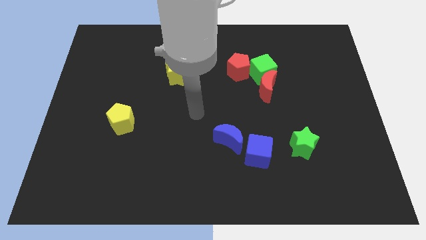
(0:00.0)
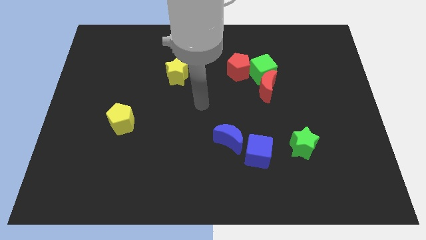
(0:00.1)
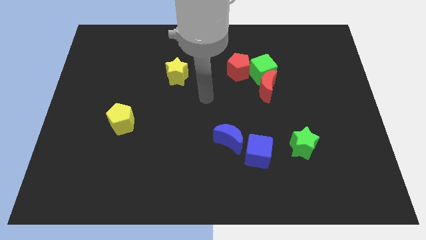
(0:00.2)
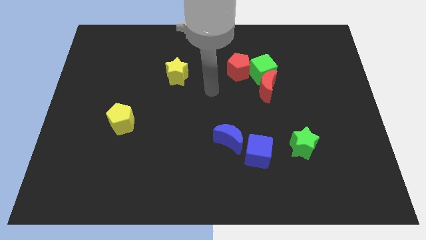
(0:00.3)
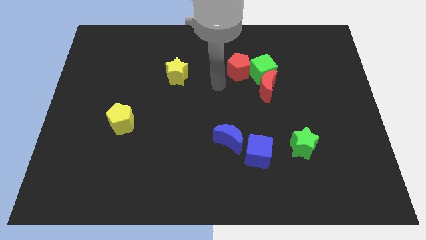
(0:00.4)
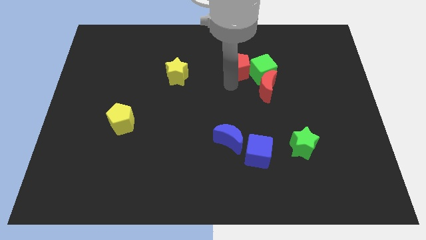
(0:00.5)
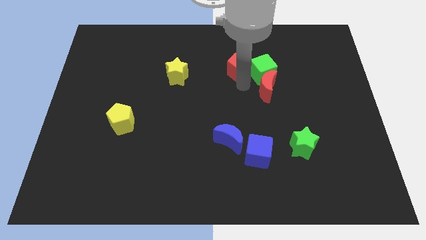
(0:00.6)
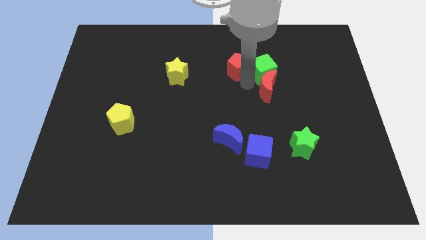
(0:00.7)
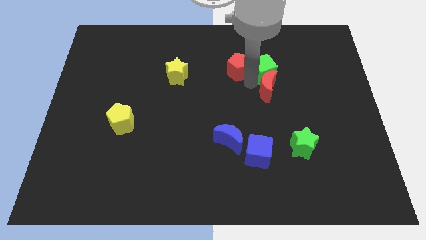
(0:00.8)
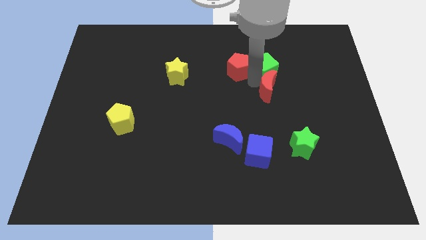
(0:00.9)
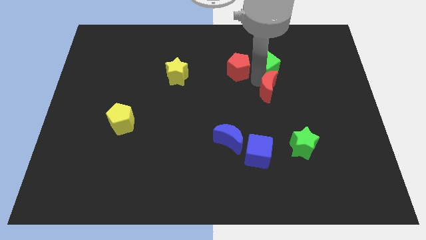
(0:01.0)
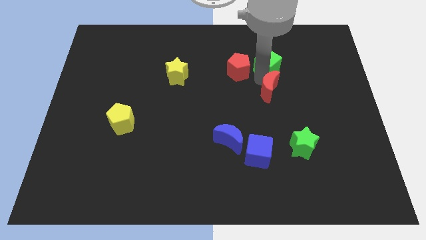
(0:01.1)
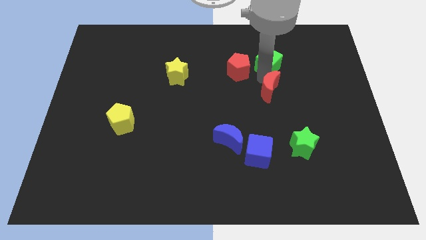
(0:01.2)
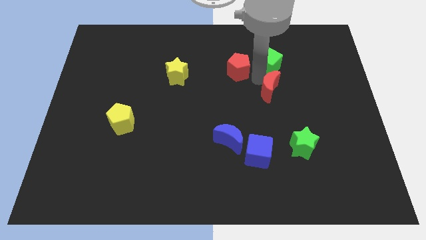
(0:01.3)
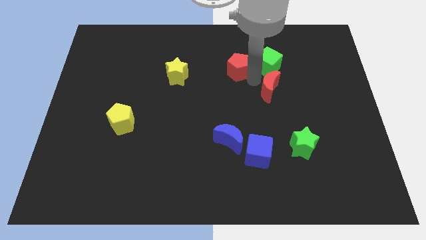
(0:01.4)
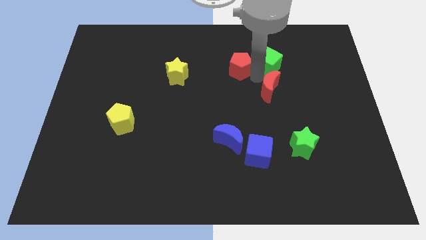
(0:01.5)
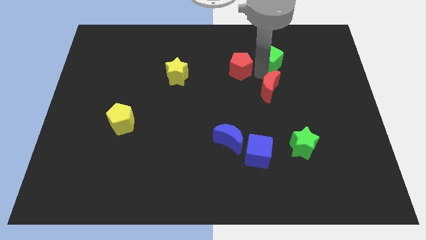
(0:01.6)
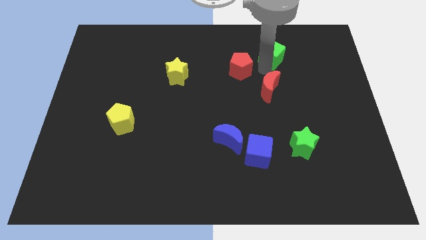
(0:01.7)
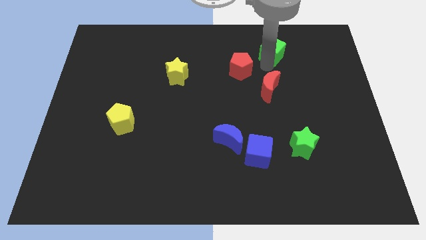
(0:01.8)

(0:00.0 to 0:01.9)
separate the green cube from the red moon and red pentagon

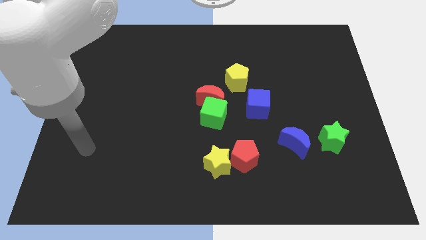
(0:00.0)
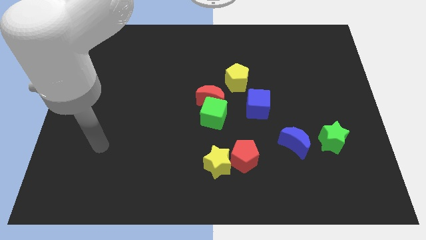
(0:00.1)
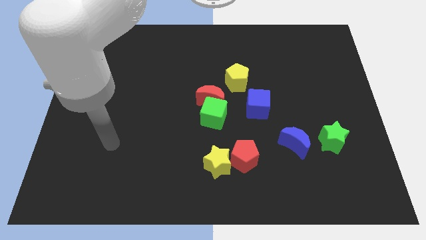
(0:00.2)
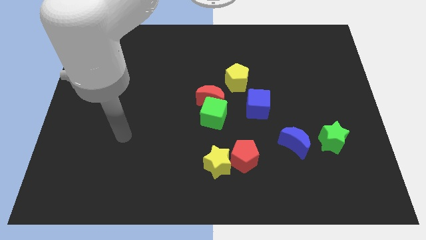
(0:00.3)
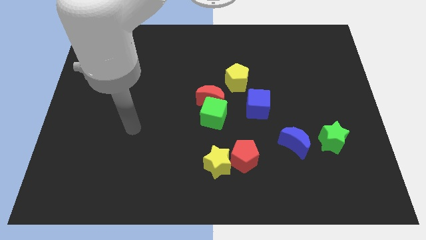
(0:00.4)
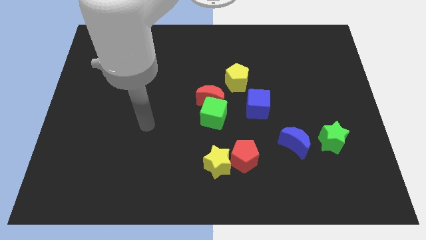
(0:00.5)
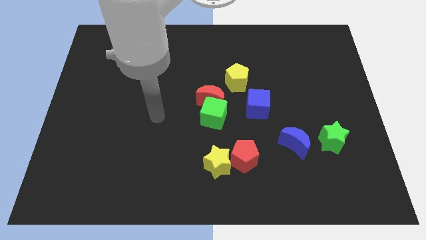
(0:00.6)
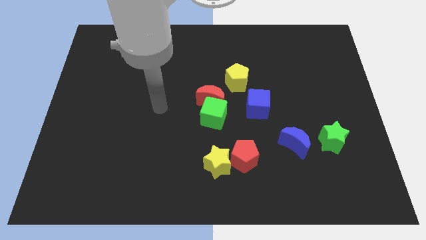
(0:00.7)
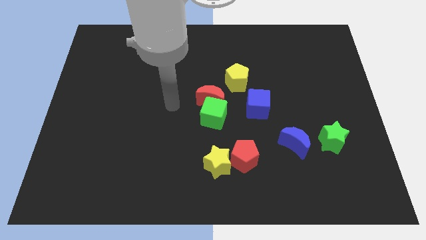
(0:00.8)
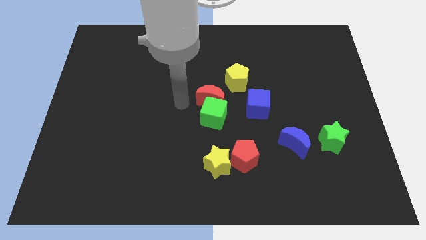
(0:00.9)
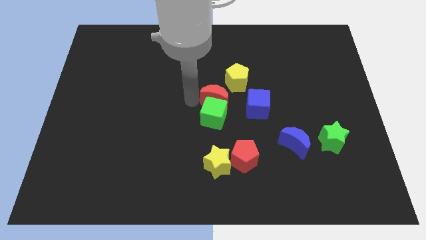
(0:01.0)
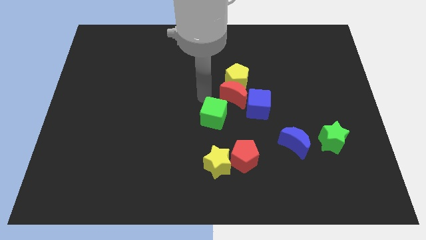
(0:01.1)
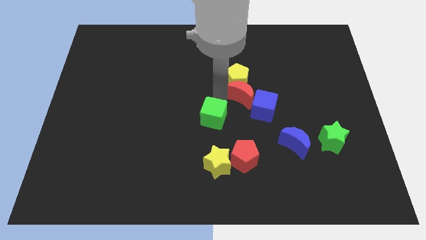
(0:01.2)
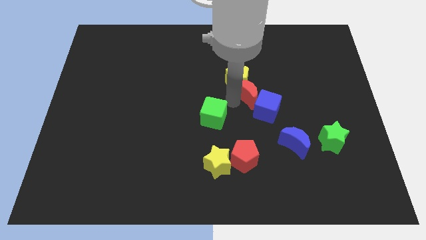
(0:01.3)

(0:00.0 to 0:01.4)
separate the green cube from the red moon

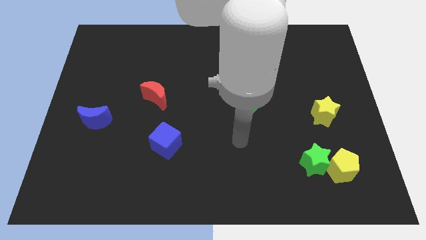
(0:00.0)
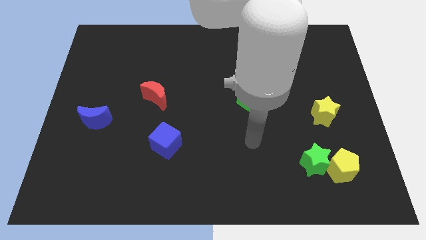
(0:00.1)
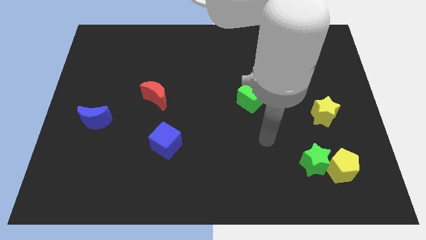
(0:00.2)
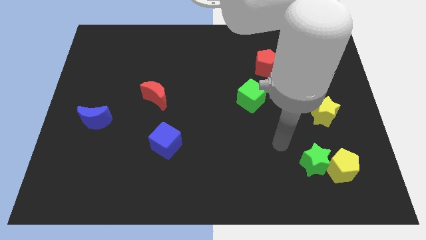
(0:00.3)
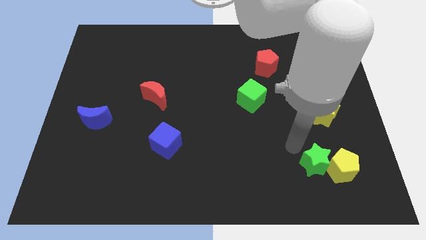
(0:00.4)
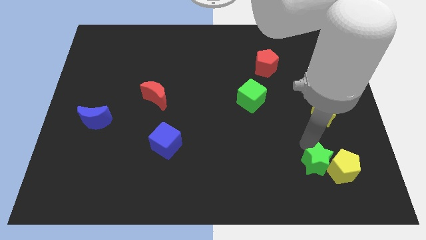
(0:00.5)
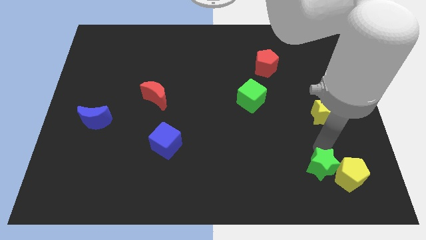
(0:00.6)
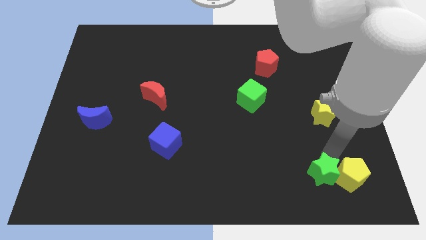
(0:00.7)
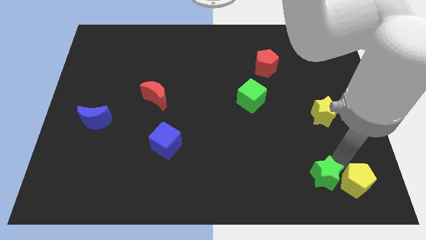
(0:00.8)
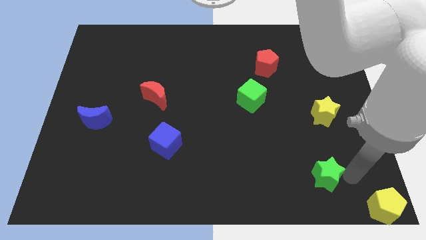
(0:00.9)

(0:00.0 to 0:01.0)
pull the green star apart from the yellow pentagon

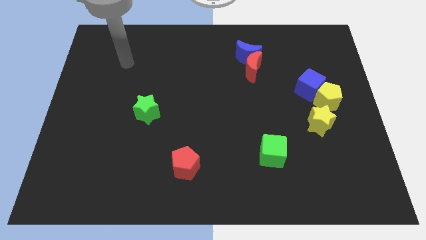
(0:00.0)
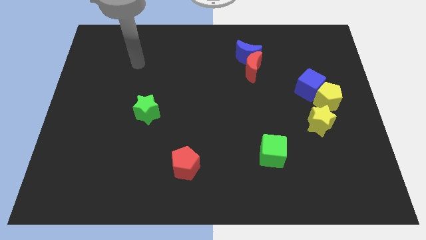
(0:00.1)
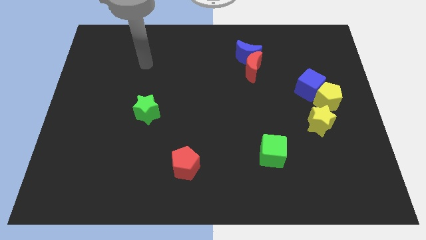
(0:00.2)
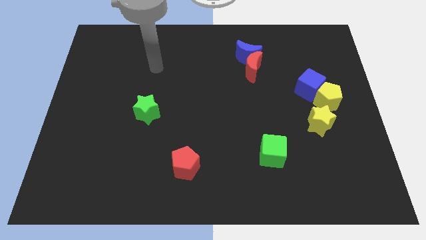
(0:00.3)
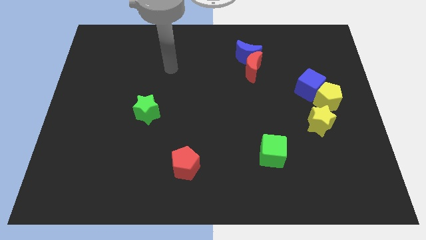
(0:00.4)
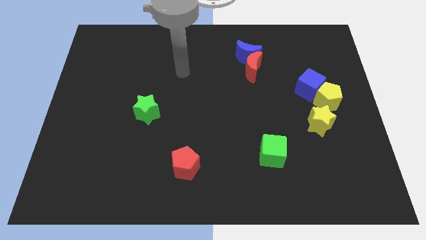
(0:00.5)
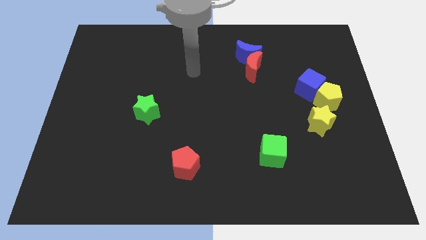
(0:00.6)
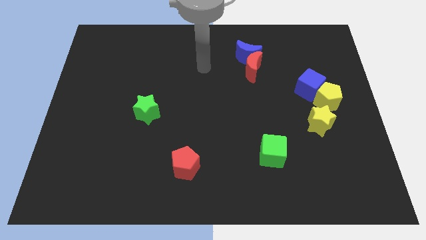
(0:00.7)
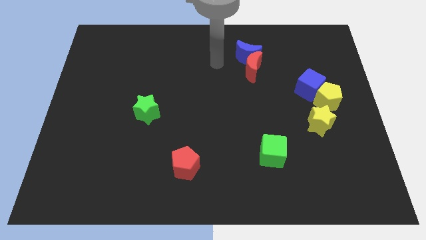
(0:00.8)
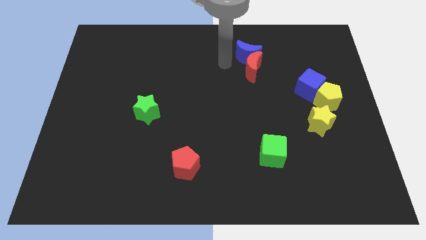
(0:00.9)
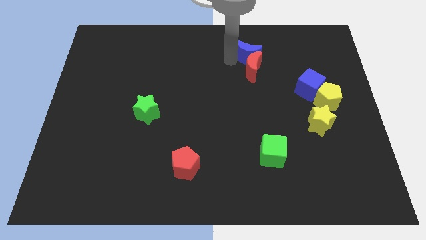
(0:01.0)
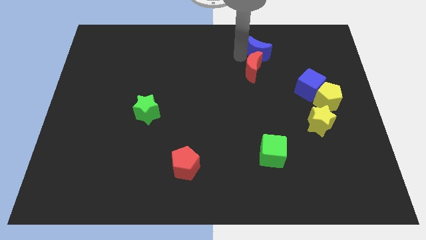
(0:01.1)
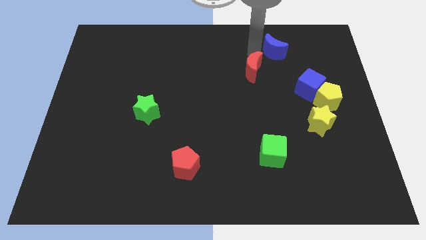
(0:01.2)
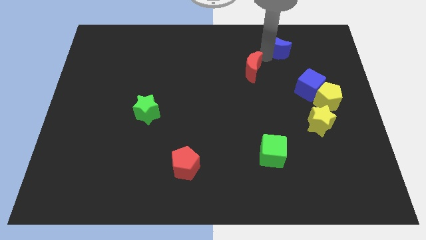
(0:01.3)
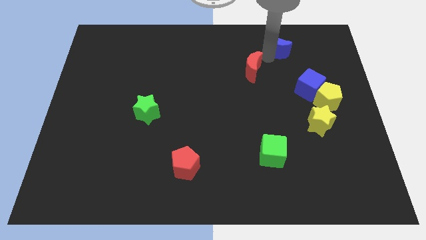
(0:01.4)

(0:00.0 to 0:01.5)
move the red moon away from the blue moon

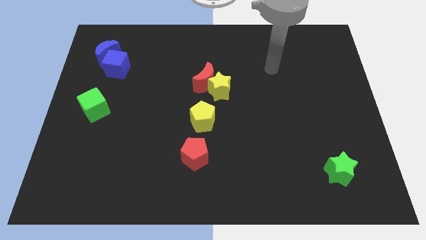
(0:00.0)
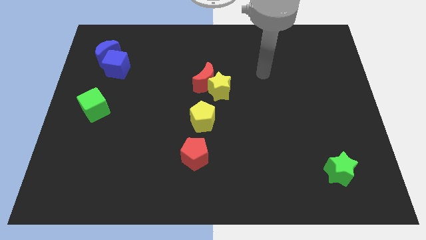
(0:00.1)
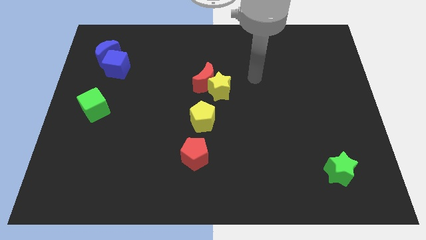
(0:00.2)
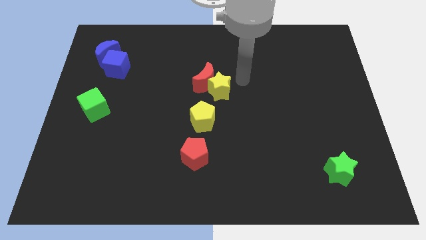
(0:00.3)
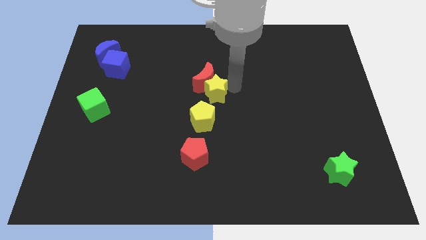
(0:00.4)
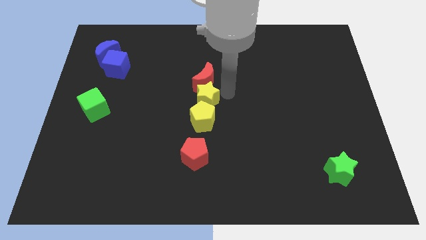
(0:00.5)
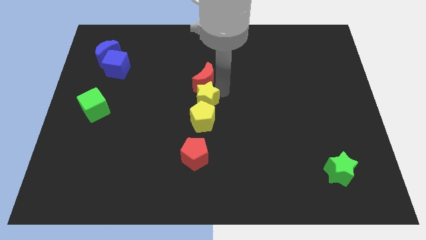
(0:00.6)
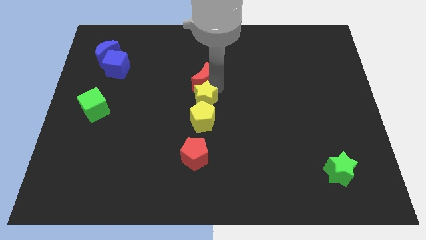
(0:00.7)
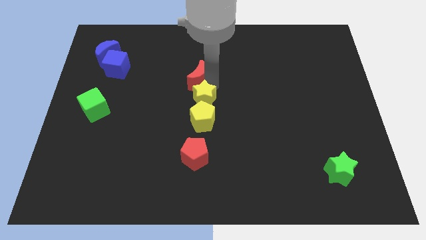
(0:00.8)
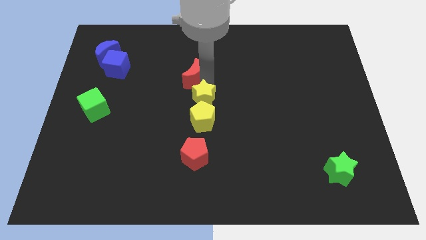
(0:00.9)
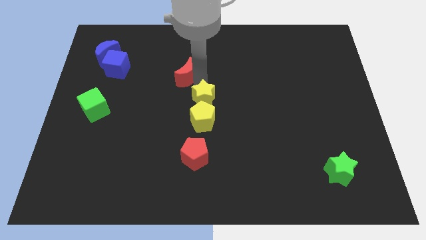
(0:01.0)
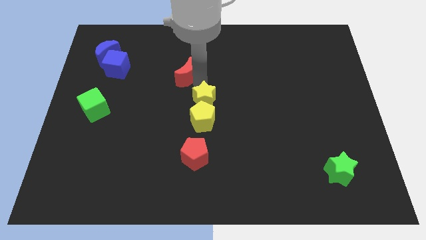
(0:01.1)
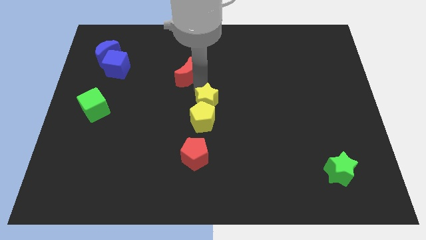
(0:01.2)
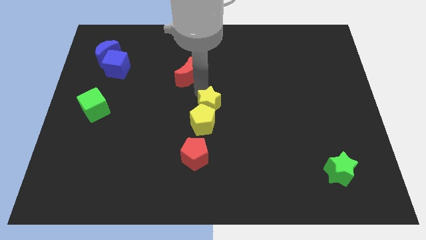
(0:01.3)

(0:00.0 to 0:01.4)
separate the red moon from the yellow star

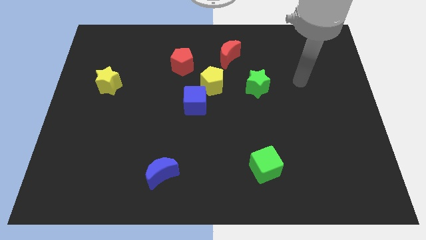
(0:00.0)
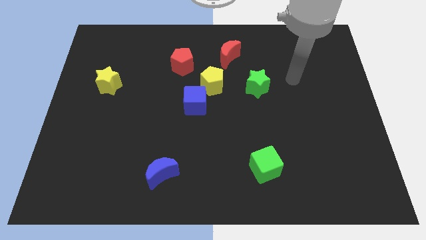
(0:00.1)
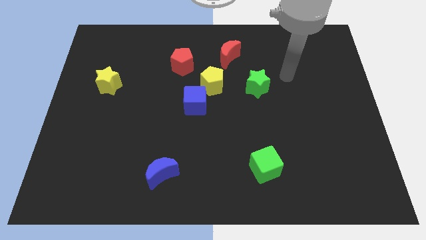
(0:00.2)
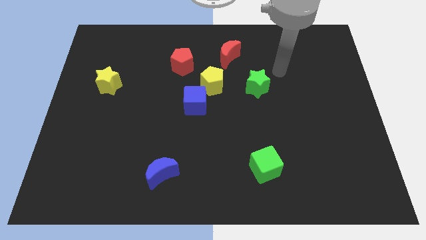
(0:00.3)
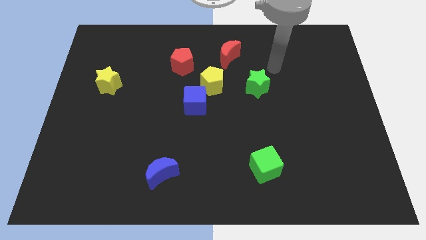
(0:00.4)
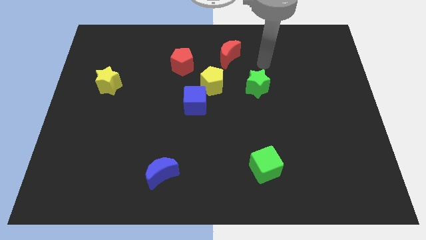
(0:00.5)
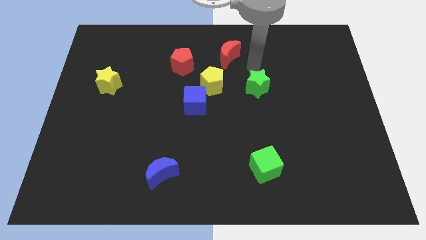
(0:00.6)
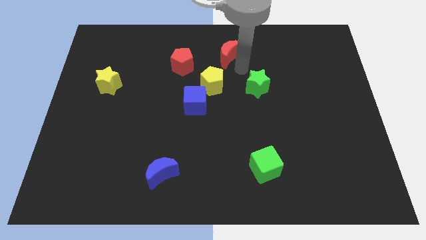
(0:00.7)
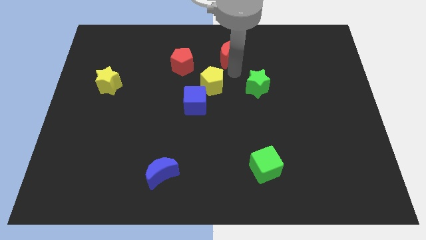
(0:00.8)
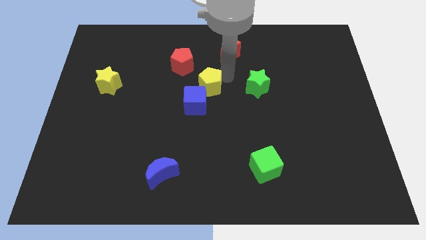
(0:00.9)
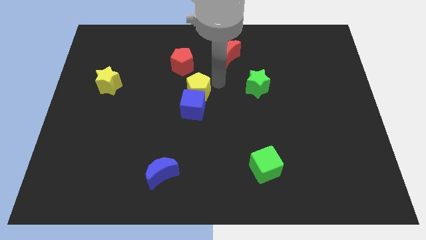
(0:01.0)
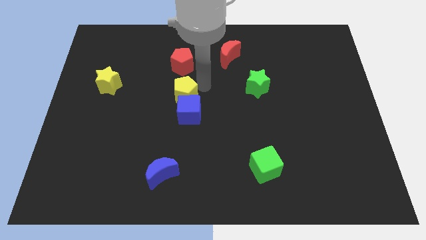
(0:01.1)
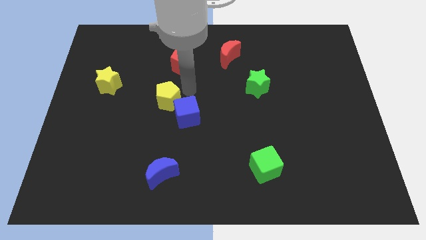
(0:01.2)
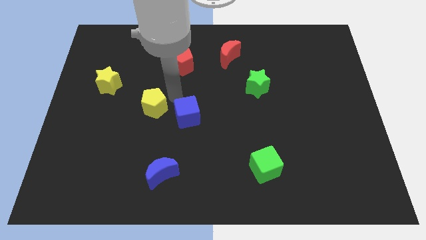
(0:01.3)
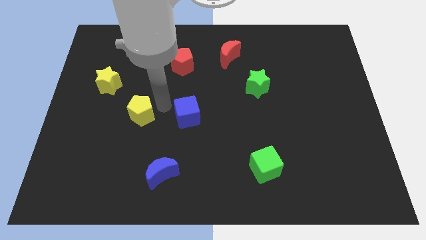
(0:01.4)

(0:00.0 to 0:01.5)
move the blue cube away from the yellow pentagon

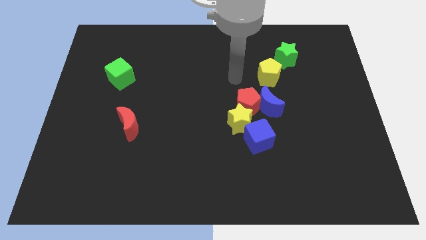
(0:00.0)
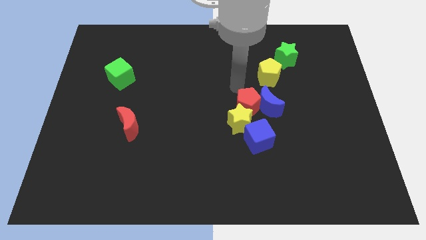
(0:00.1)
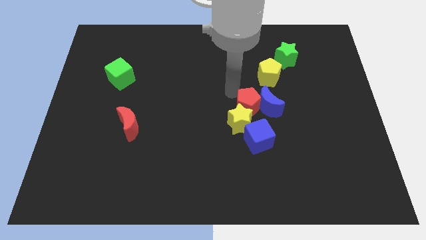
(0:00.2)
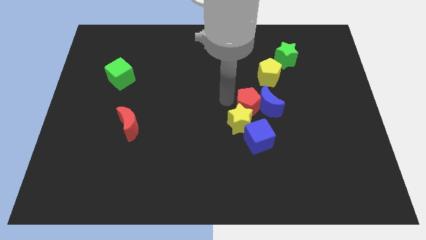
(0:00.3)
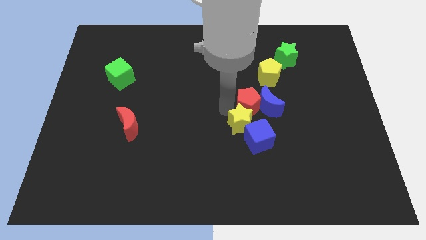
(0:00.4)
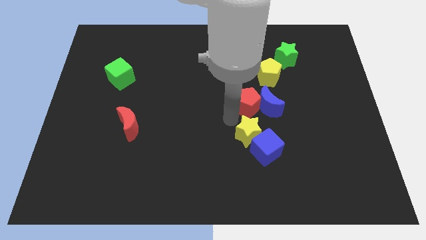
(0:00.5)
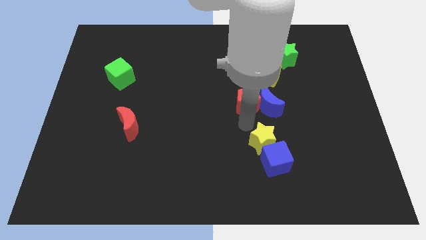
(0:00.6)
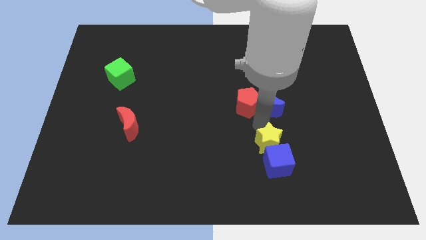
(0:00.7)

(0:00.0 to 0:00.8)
separate the red pentagon from the group of blocks

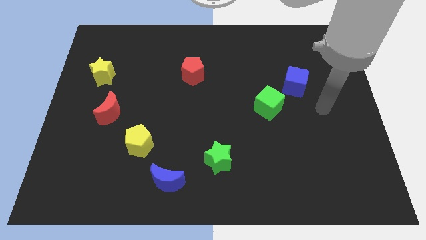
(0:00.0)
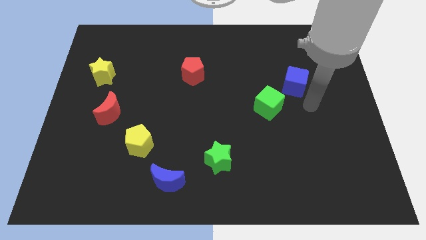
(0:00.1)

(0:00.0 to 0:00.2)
move the blue cube away from the green cube
